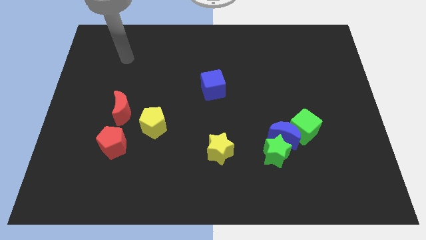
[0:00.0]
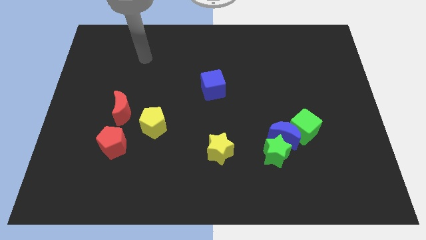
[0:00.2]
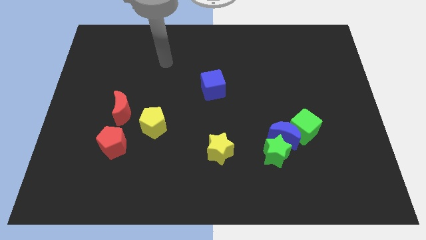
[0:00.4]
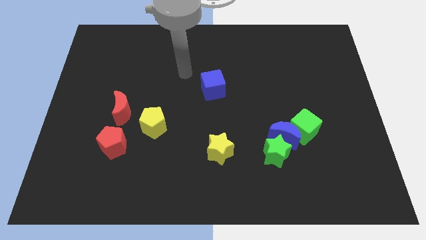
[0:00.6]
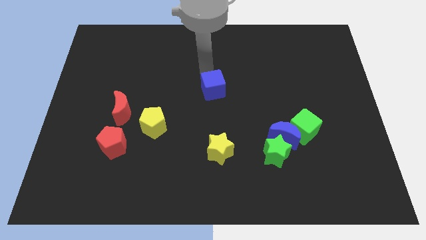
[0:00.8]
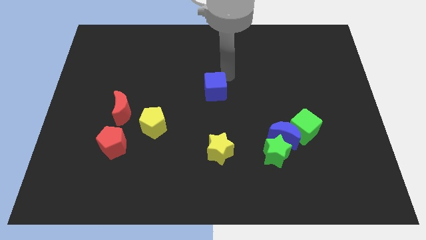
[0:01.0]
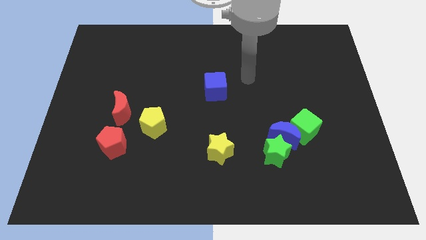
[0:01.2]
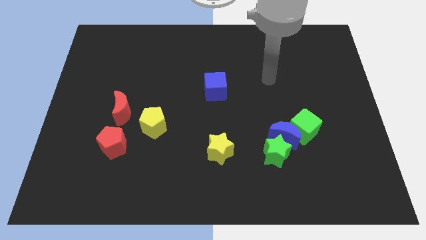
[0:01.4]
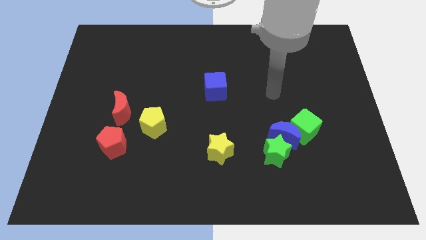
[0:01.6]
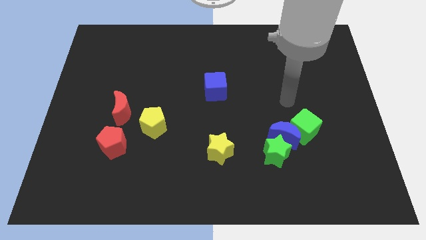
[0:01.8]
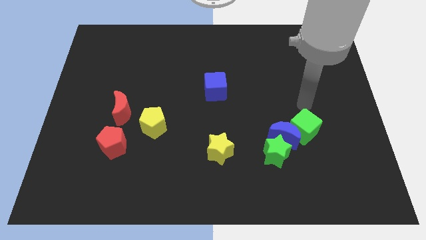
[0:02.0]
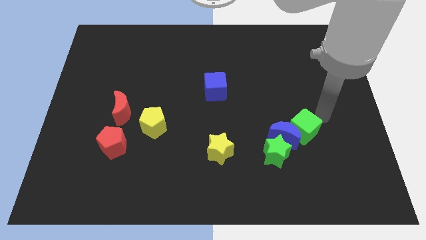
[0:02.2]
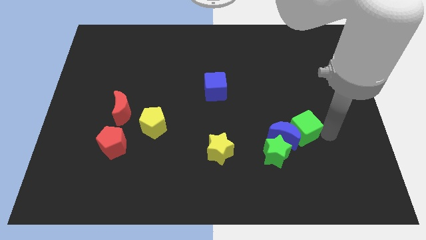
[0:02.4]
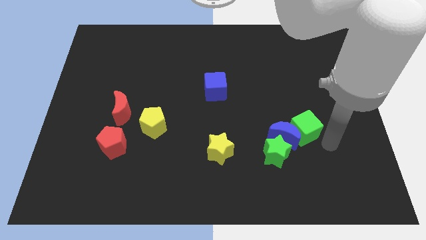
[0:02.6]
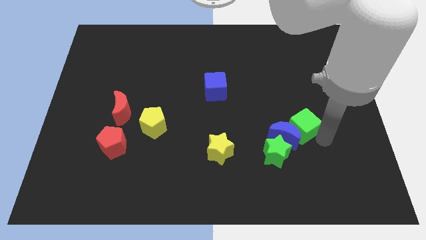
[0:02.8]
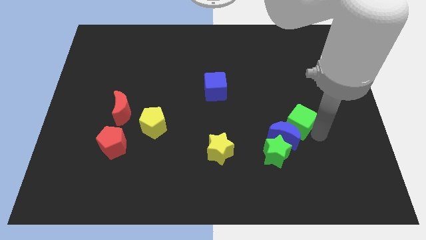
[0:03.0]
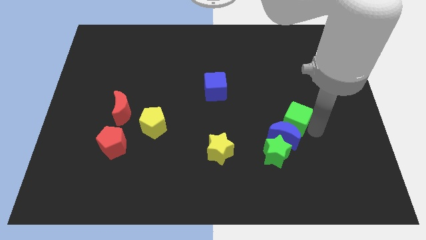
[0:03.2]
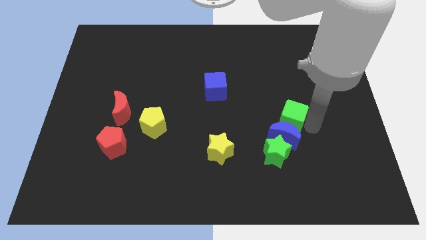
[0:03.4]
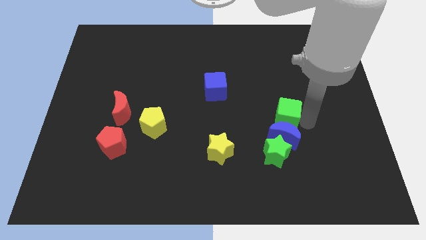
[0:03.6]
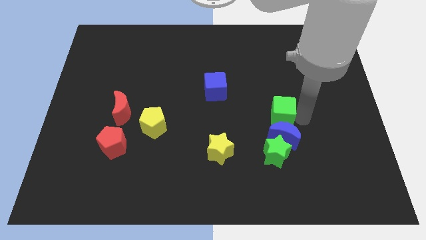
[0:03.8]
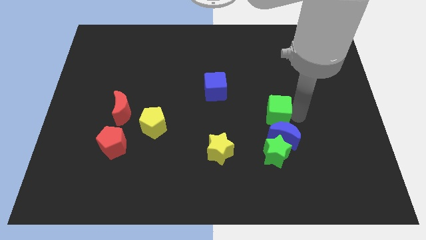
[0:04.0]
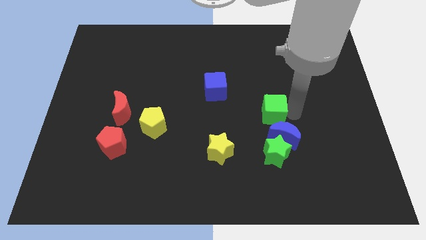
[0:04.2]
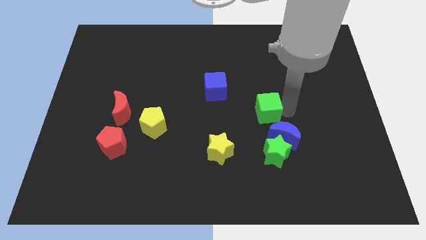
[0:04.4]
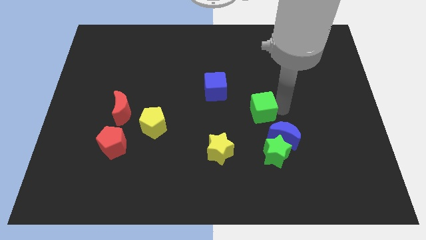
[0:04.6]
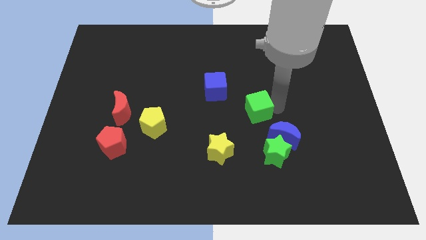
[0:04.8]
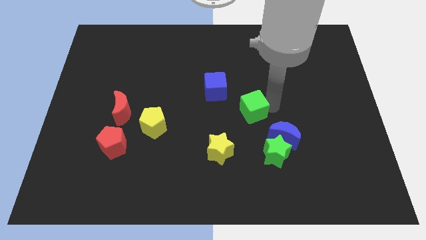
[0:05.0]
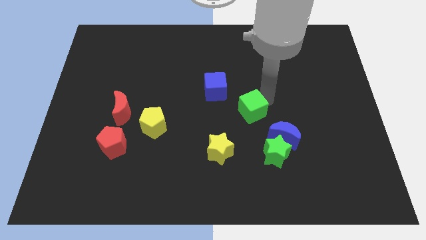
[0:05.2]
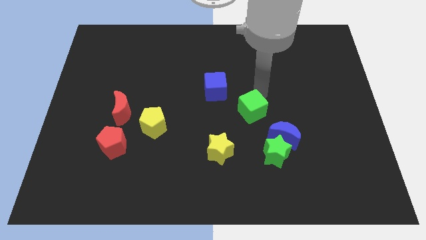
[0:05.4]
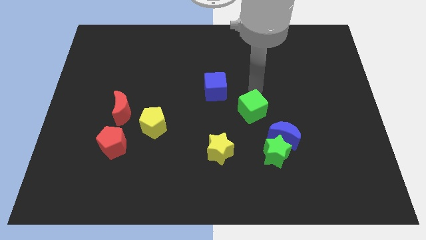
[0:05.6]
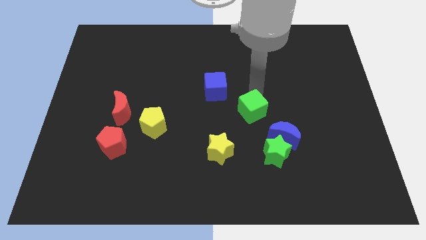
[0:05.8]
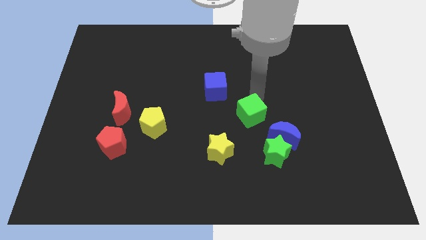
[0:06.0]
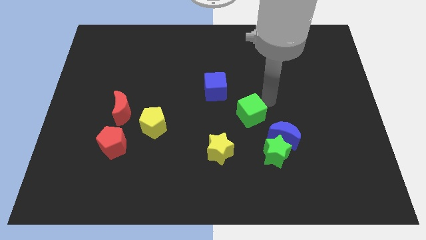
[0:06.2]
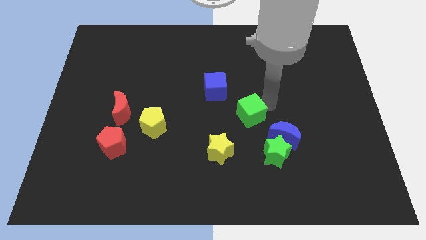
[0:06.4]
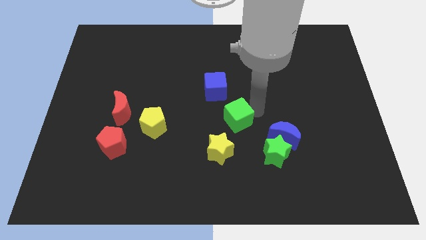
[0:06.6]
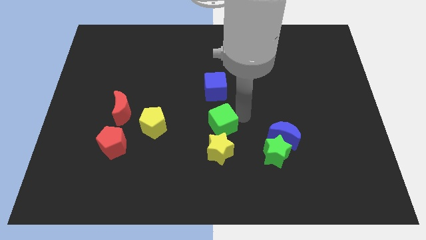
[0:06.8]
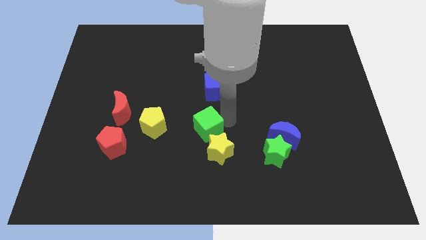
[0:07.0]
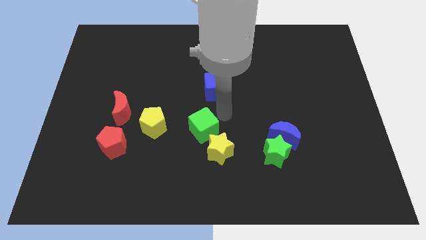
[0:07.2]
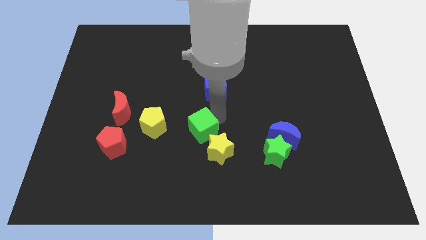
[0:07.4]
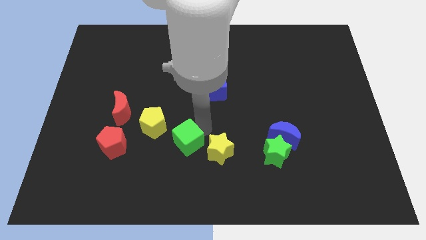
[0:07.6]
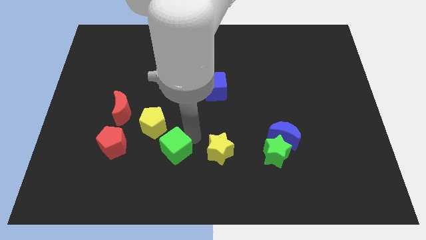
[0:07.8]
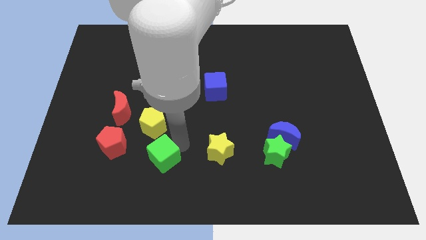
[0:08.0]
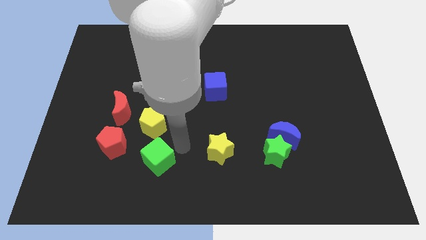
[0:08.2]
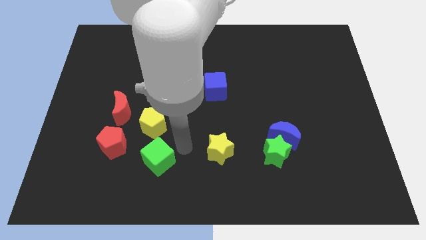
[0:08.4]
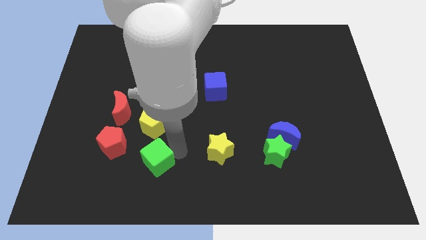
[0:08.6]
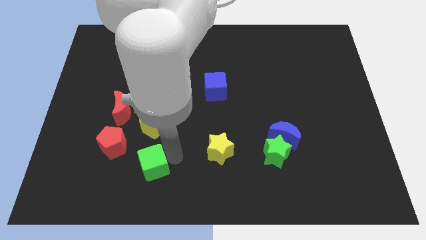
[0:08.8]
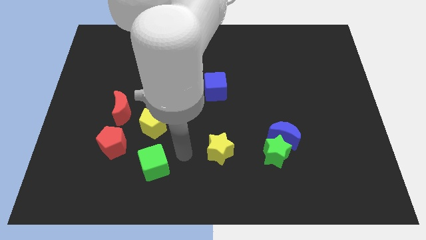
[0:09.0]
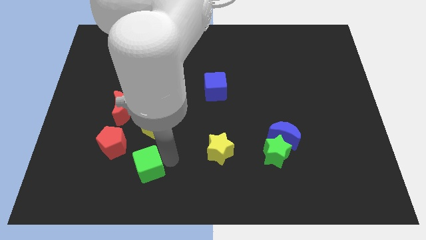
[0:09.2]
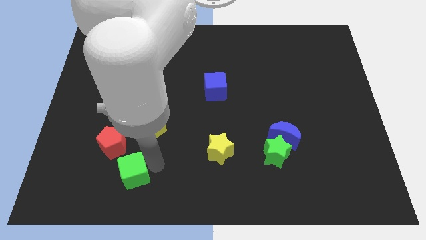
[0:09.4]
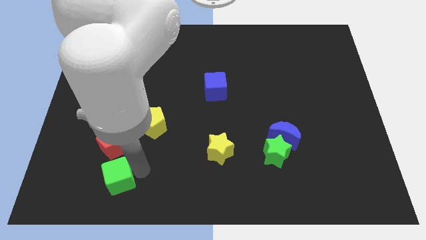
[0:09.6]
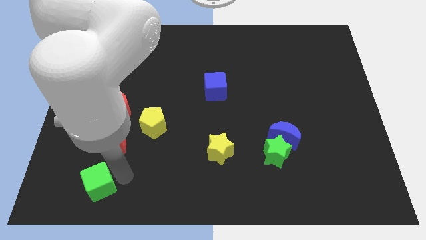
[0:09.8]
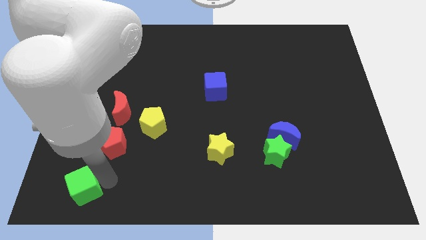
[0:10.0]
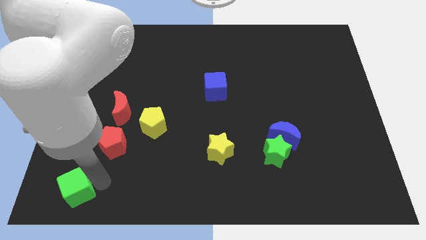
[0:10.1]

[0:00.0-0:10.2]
push the green cube to the lower left corner
